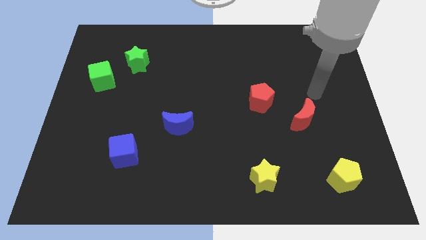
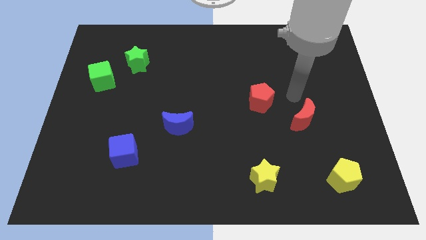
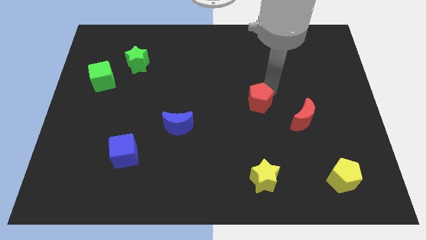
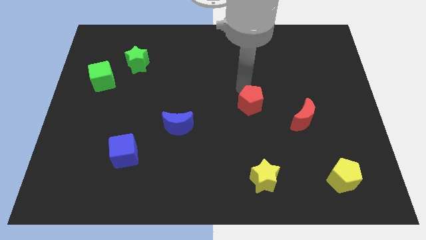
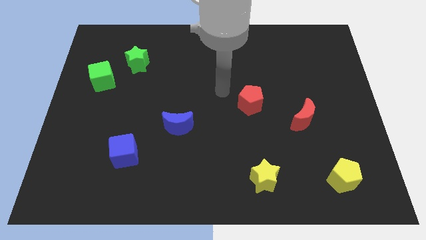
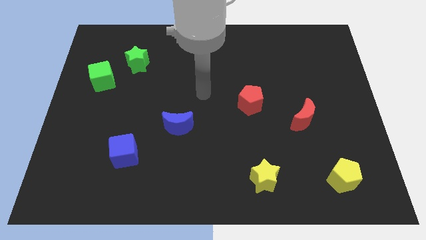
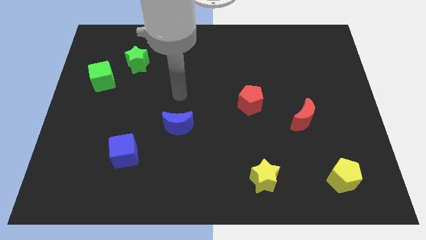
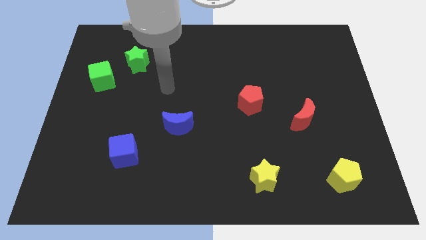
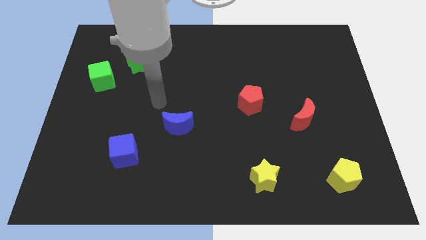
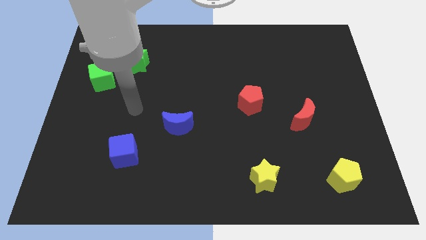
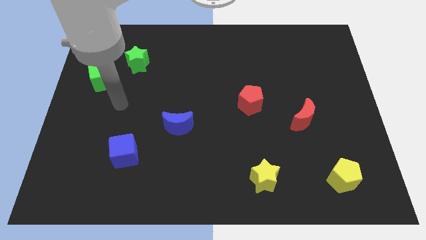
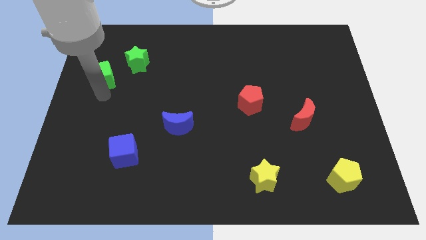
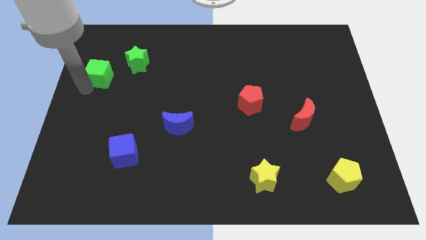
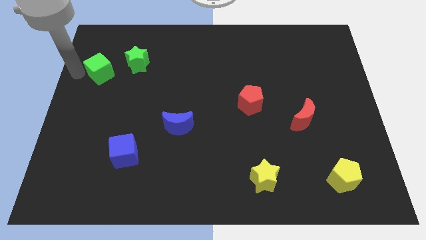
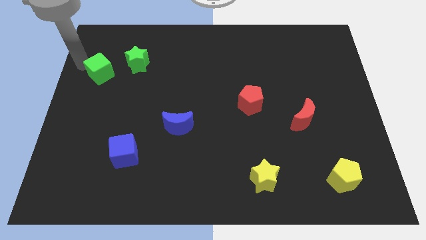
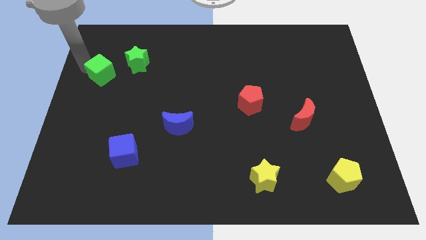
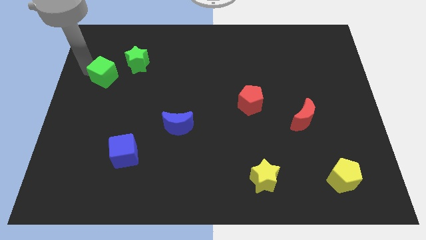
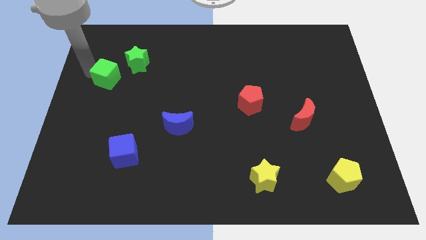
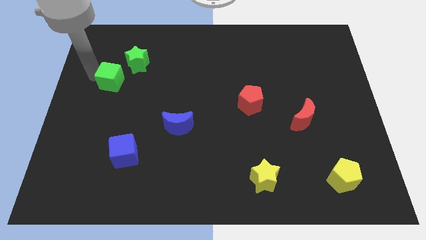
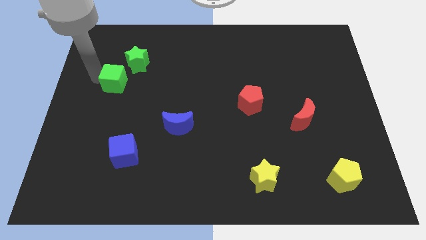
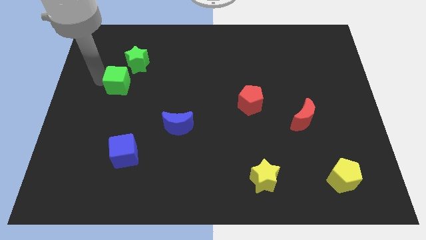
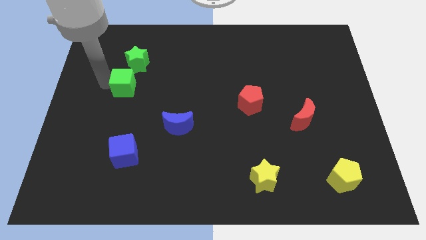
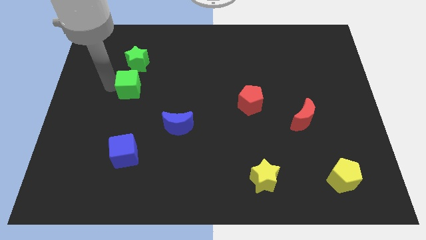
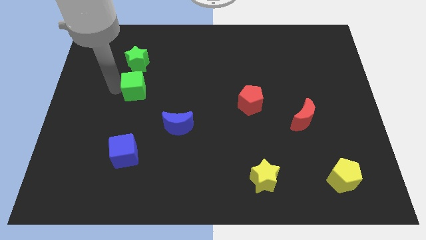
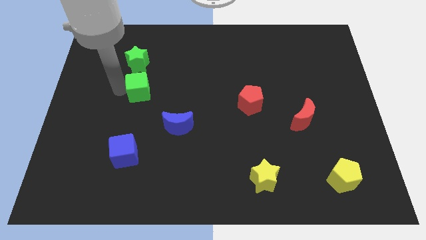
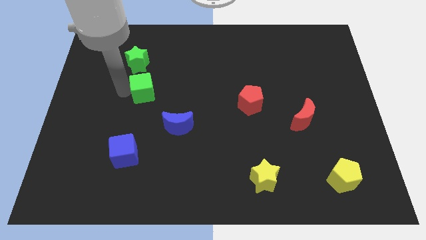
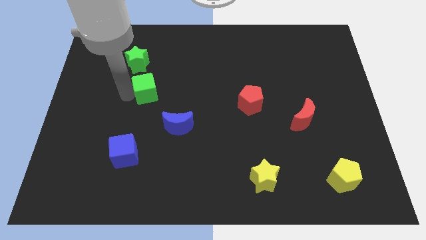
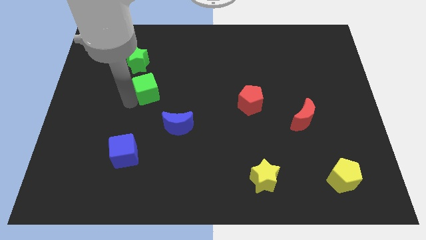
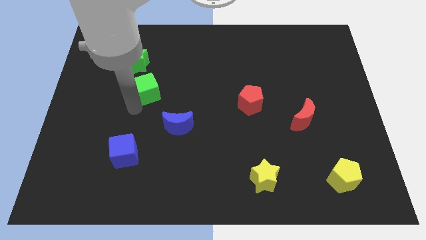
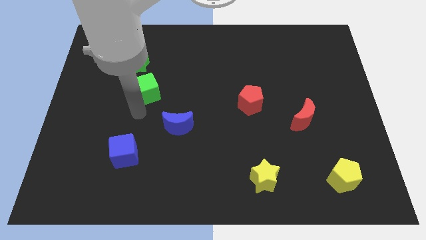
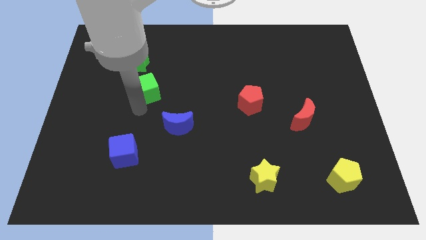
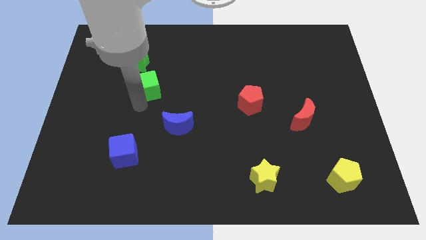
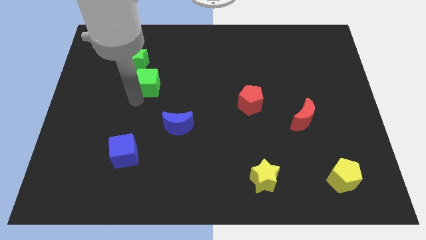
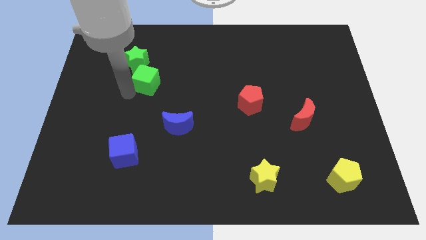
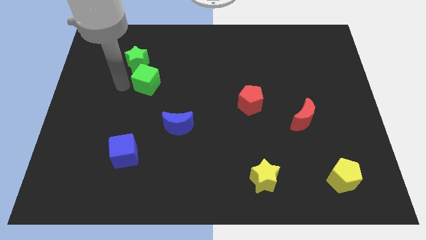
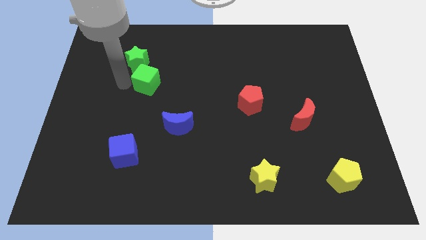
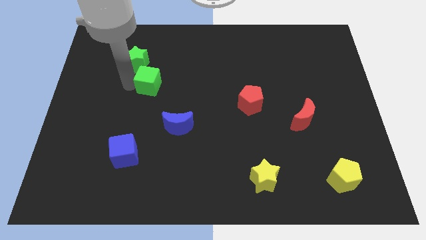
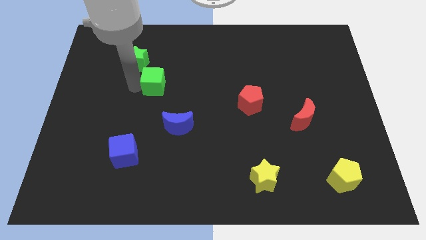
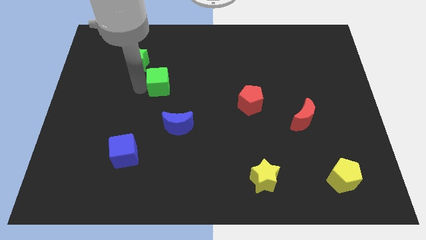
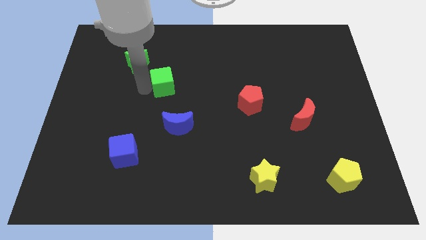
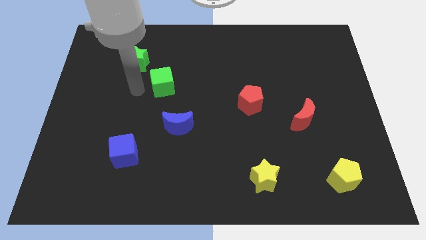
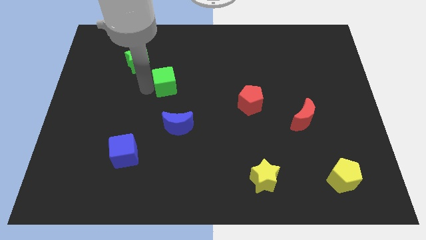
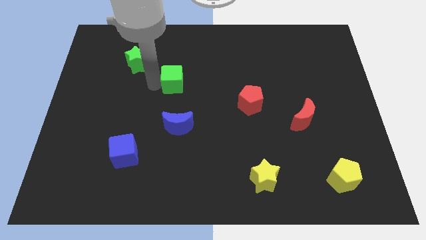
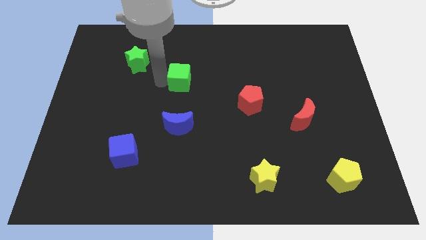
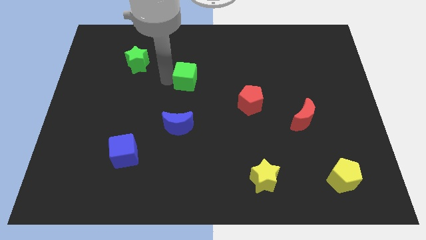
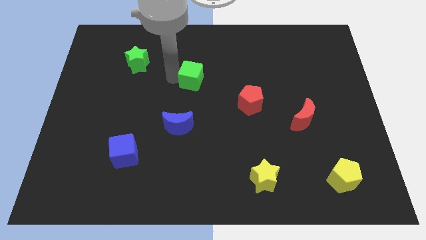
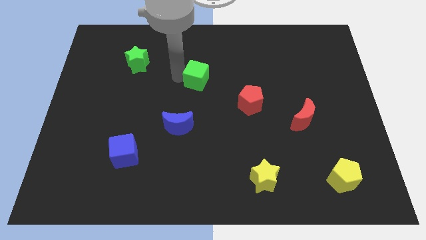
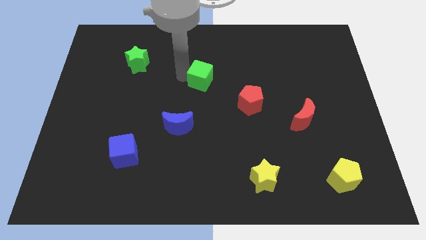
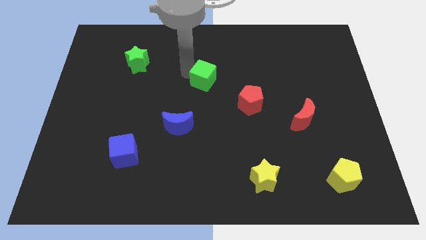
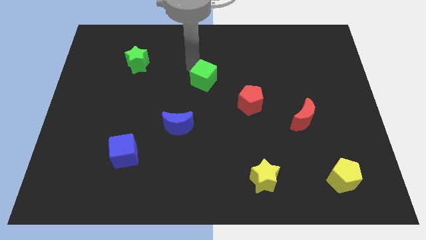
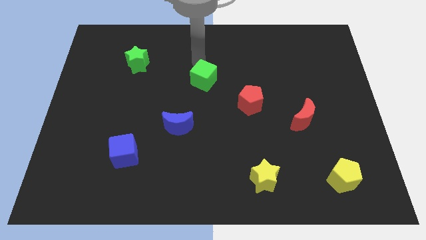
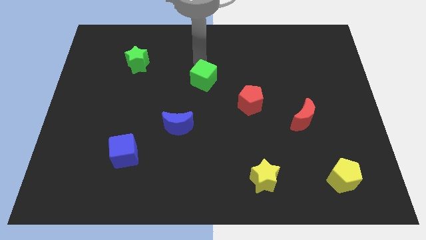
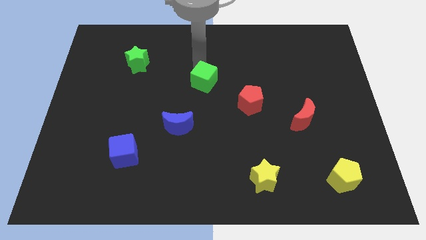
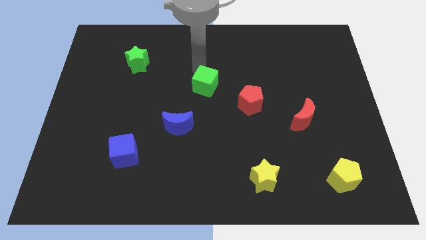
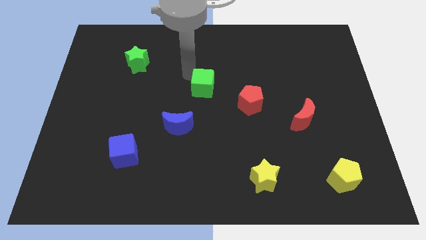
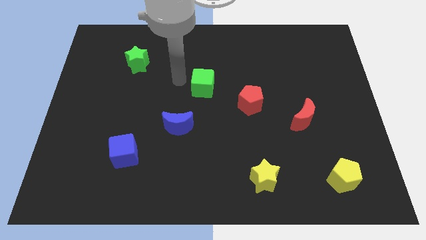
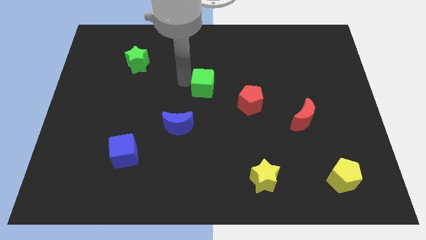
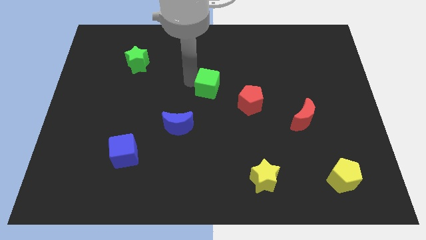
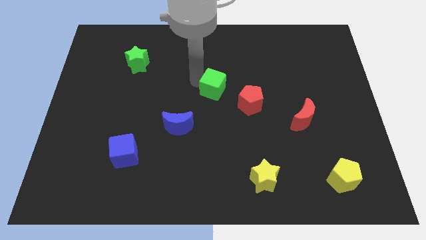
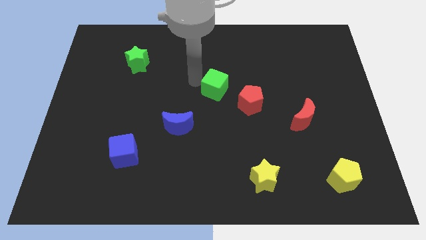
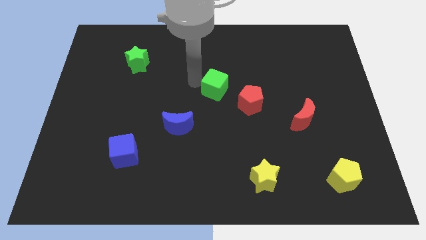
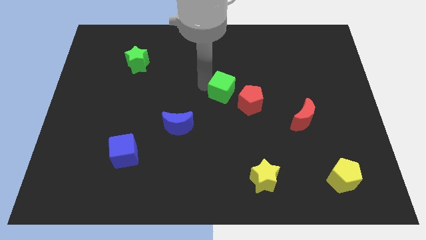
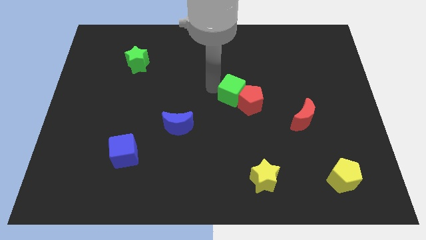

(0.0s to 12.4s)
move the green cube close to the red pentagon

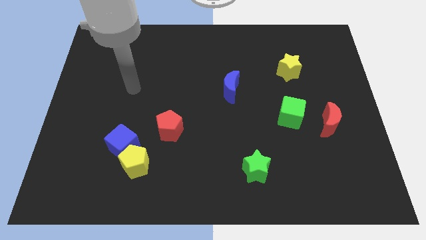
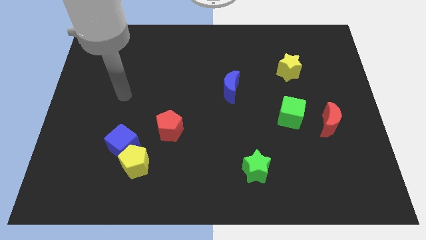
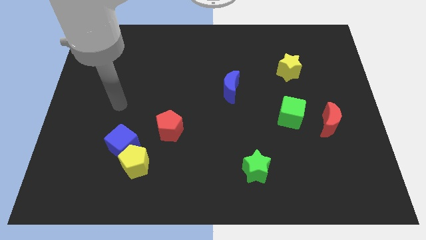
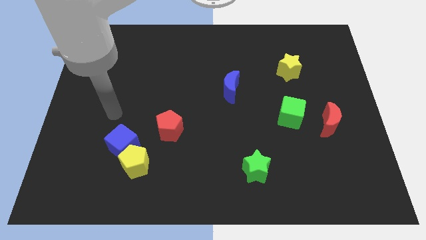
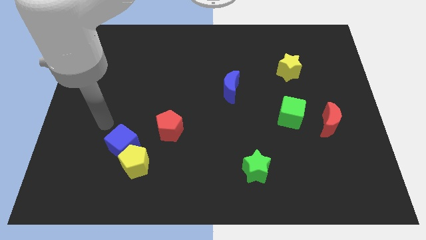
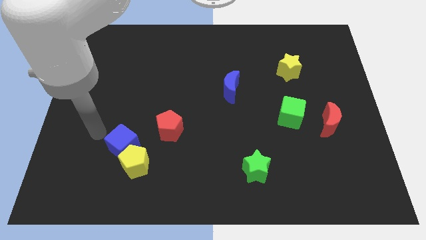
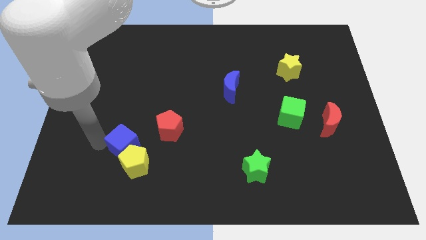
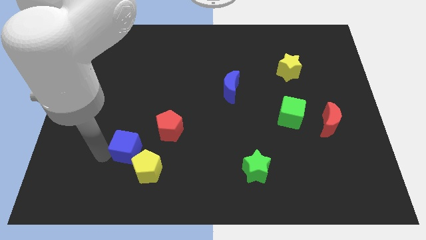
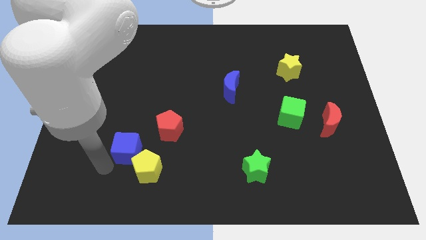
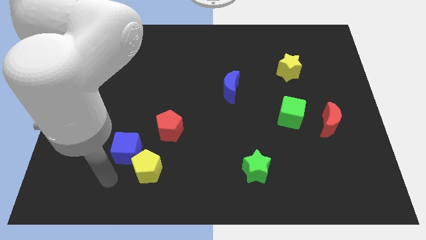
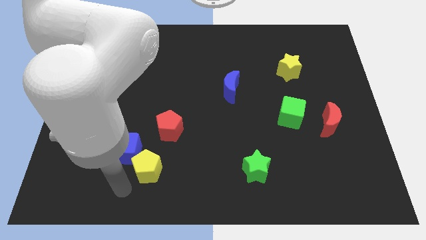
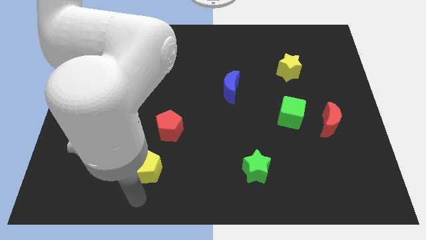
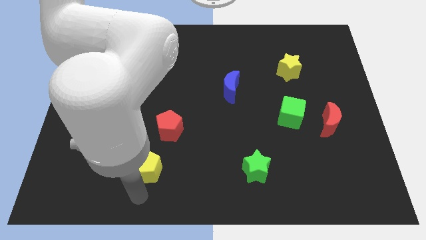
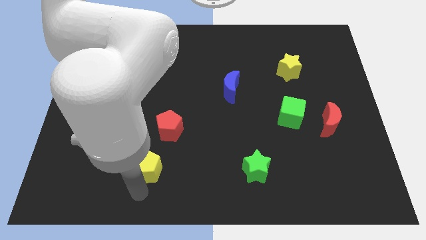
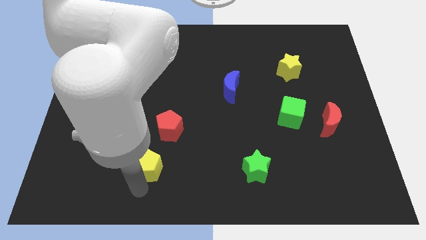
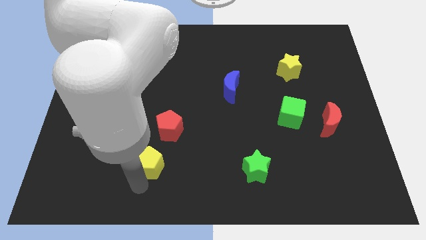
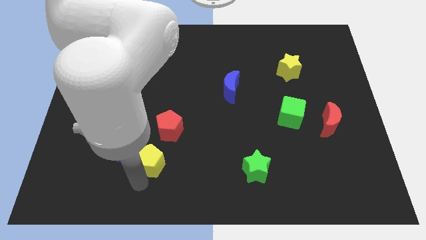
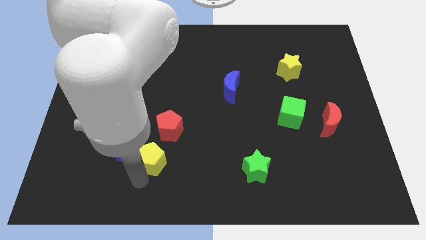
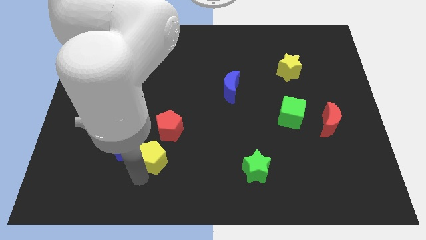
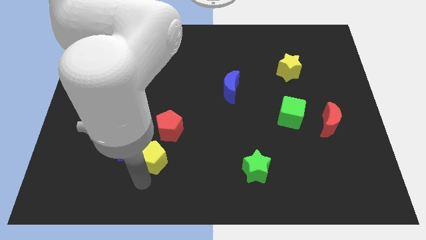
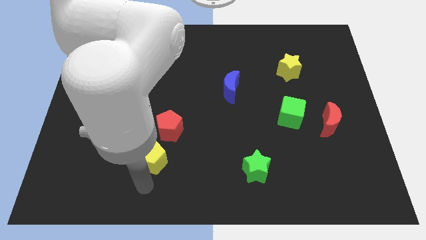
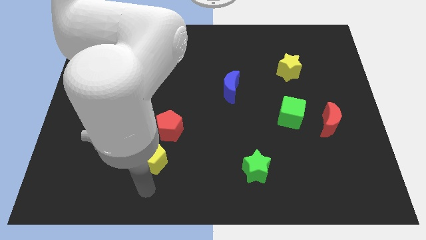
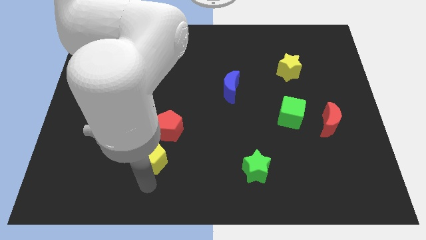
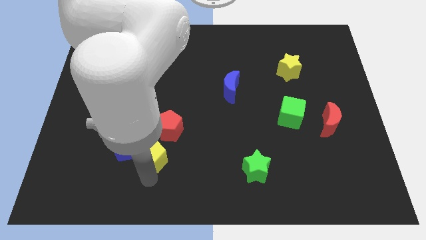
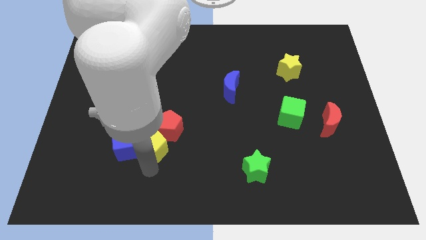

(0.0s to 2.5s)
put the yellow pentagon close to the red pentagon
